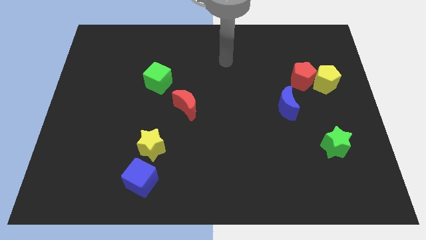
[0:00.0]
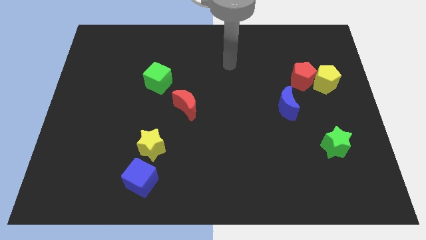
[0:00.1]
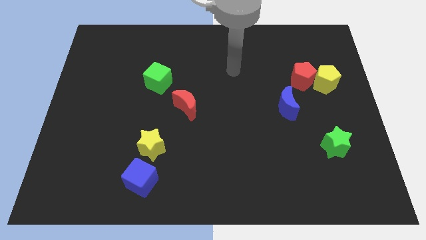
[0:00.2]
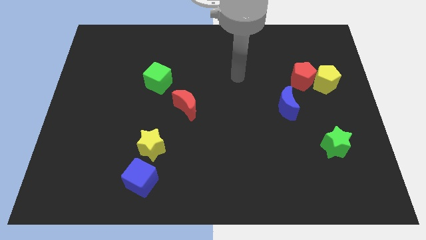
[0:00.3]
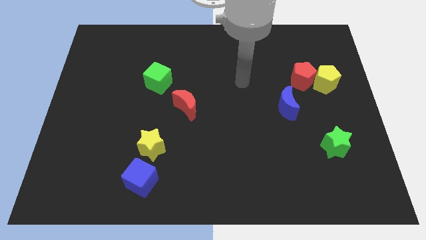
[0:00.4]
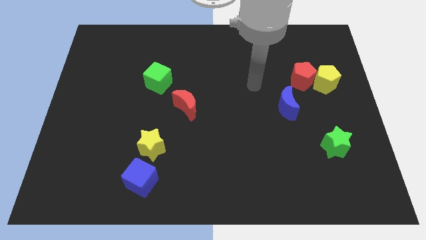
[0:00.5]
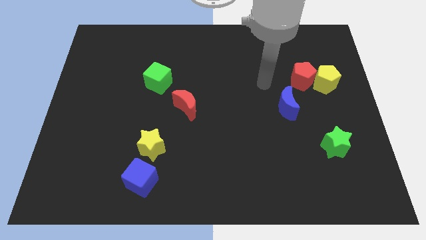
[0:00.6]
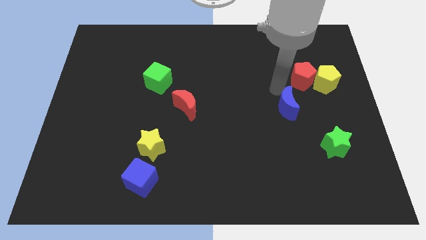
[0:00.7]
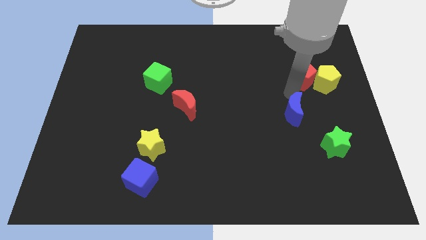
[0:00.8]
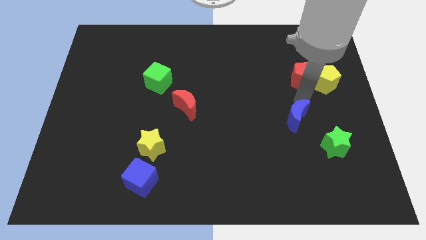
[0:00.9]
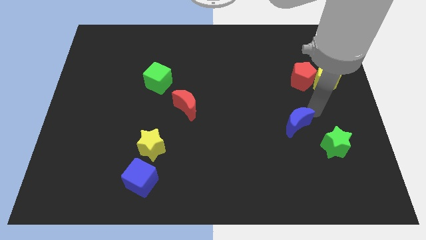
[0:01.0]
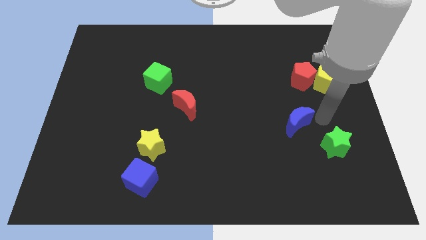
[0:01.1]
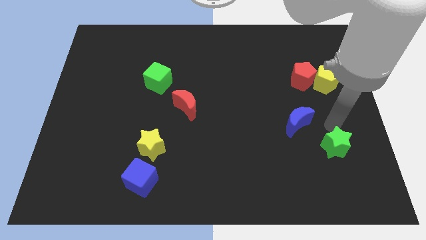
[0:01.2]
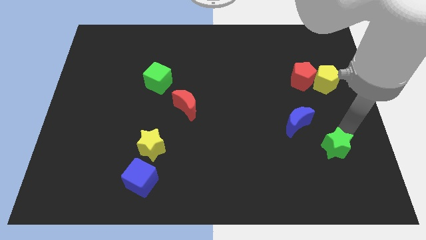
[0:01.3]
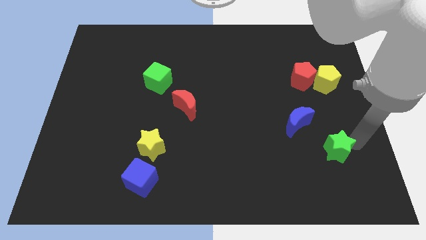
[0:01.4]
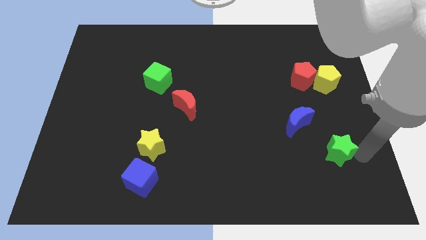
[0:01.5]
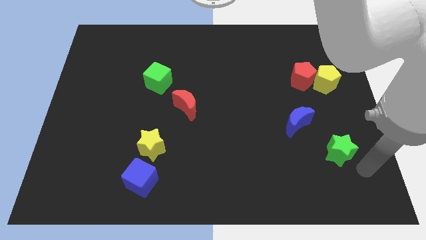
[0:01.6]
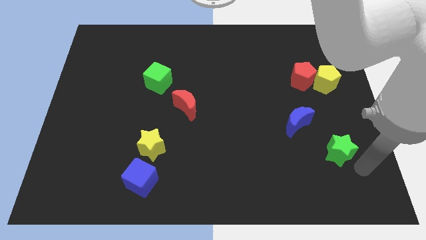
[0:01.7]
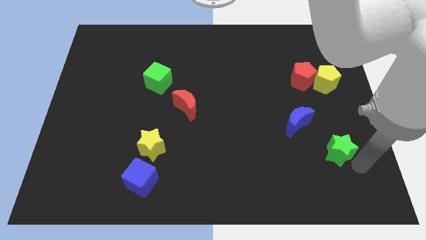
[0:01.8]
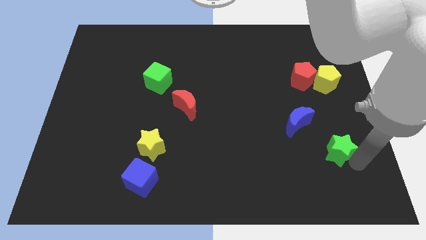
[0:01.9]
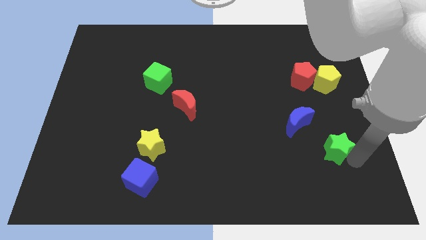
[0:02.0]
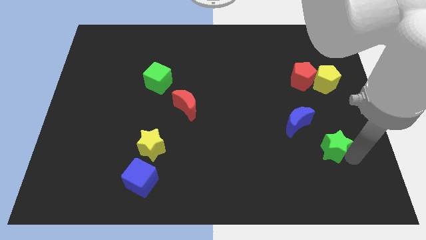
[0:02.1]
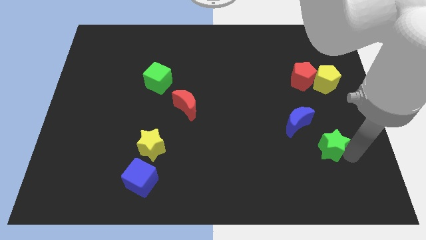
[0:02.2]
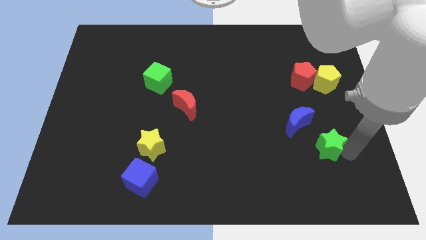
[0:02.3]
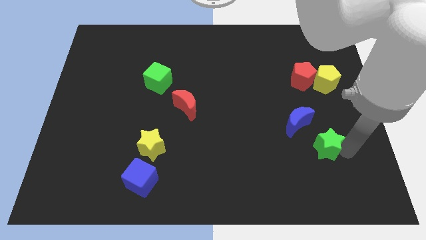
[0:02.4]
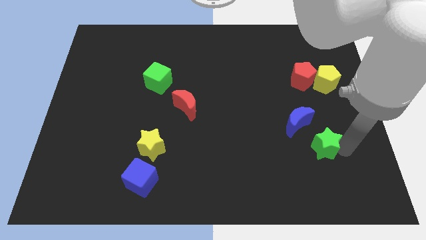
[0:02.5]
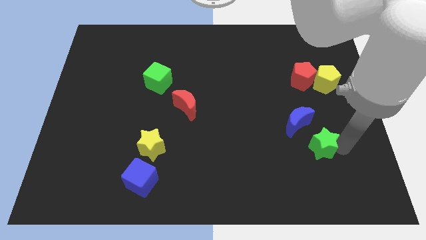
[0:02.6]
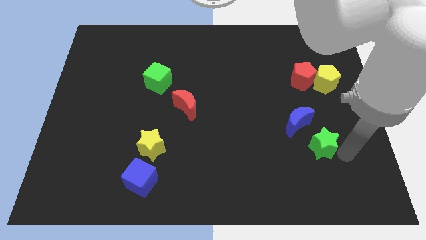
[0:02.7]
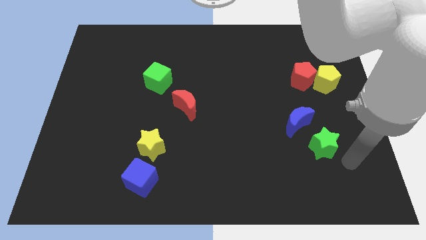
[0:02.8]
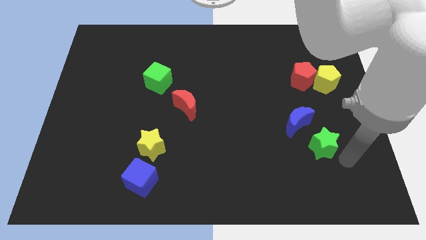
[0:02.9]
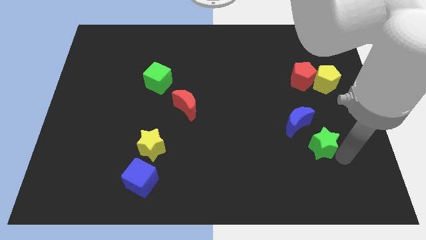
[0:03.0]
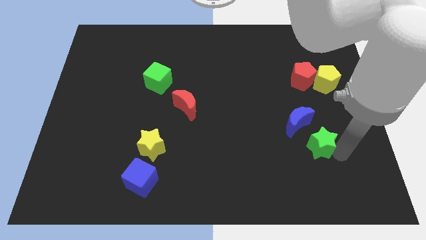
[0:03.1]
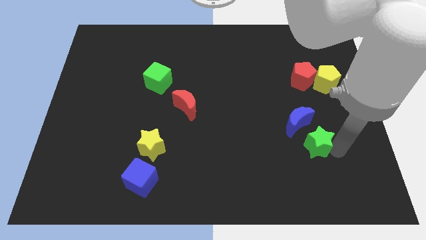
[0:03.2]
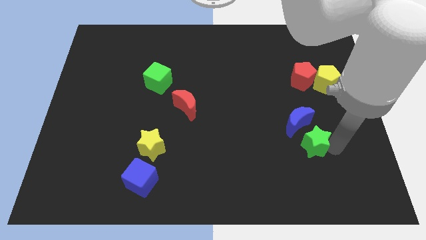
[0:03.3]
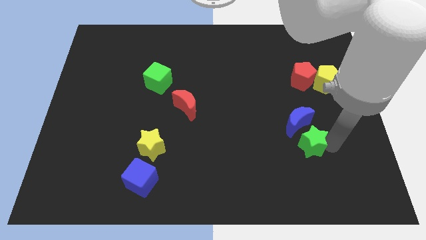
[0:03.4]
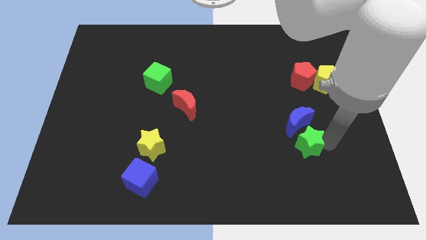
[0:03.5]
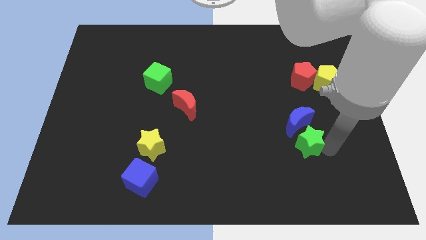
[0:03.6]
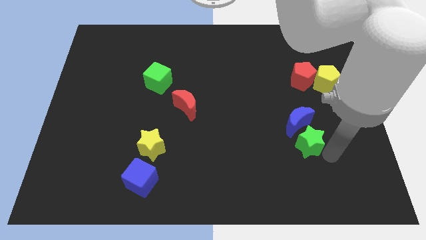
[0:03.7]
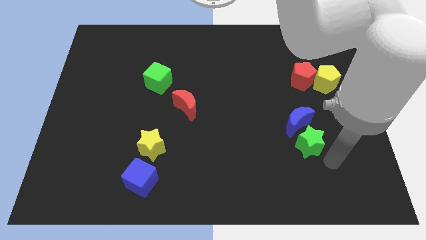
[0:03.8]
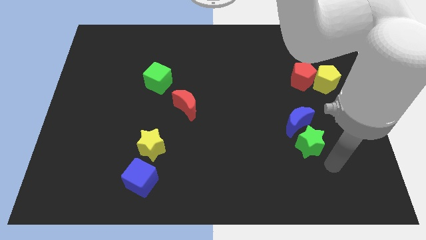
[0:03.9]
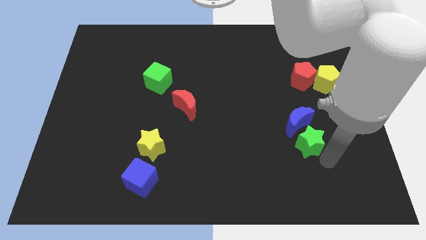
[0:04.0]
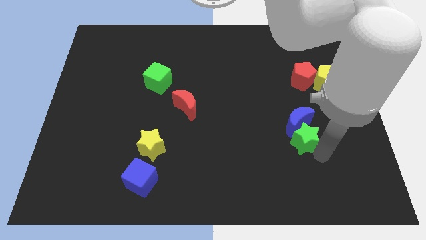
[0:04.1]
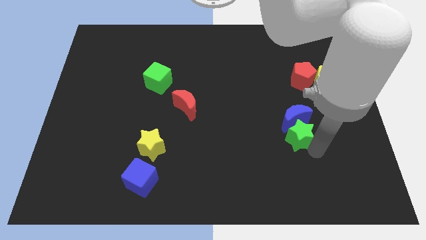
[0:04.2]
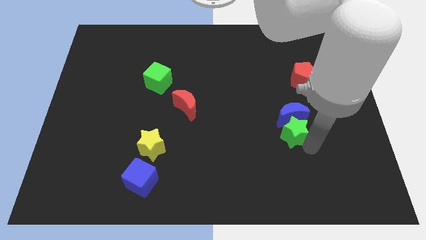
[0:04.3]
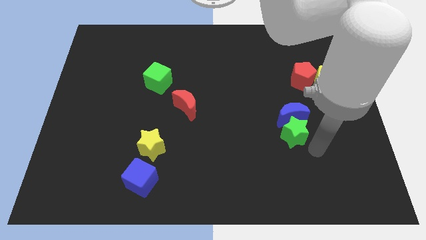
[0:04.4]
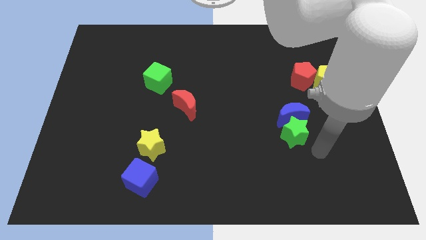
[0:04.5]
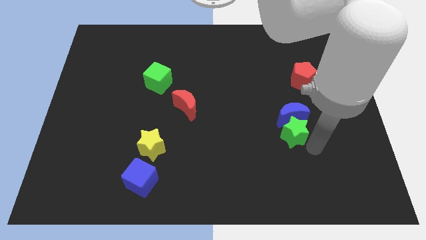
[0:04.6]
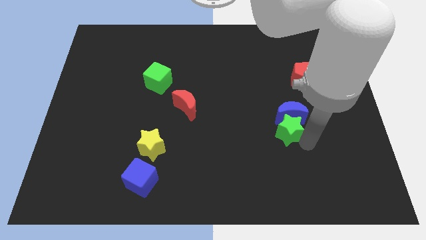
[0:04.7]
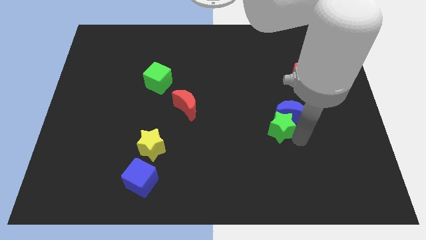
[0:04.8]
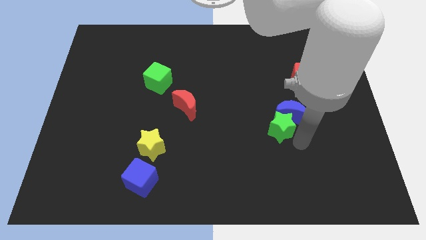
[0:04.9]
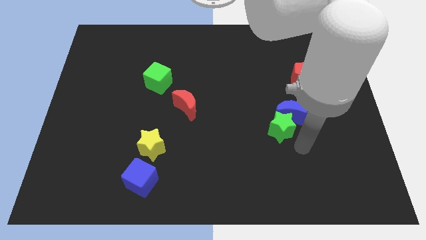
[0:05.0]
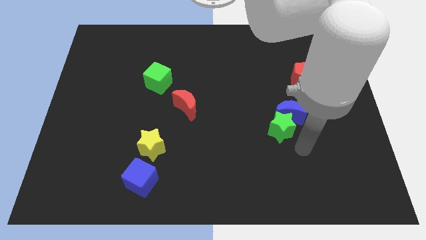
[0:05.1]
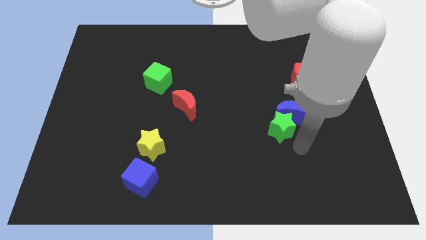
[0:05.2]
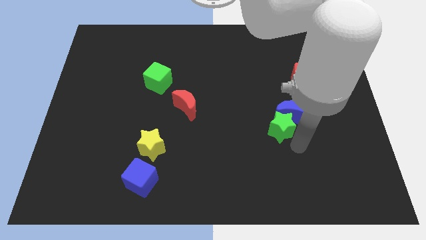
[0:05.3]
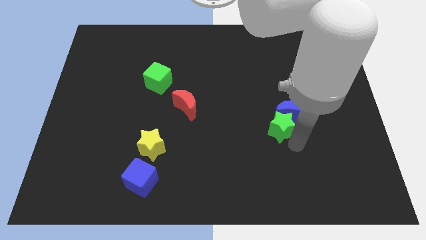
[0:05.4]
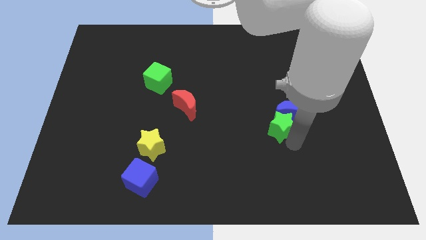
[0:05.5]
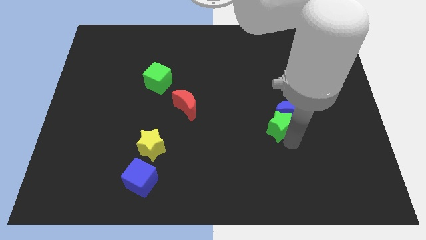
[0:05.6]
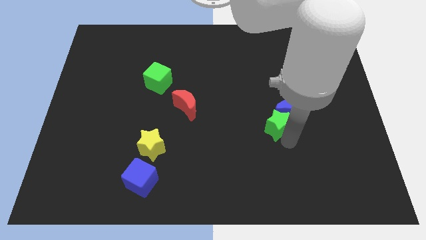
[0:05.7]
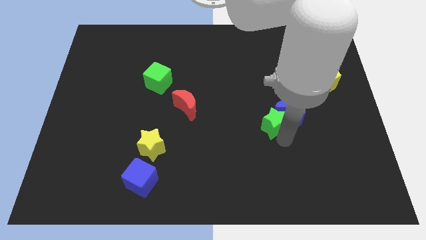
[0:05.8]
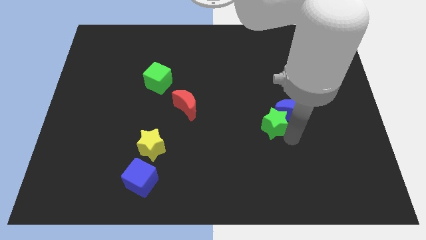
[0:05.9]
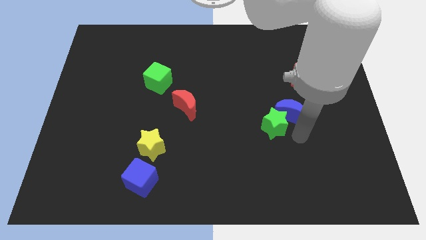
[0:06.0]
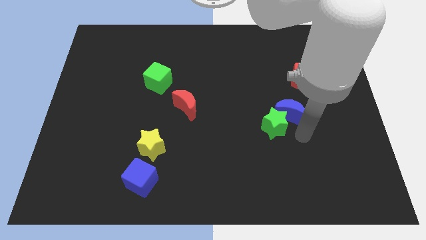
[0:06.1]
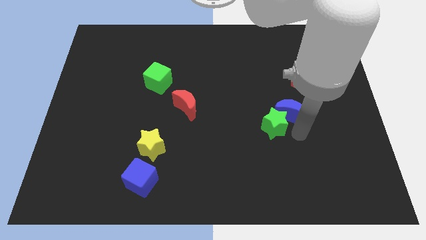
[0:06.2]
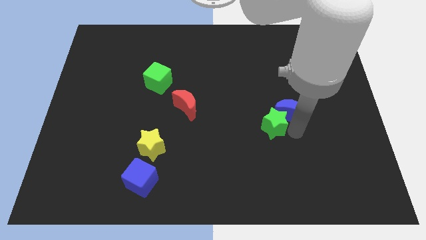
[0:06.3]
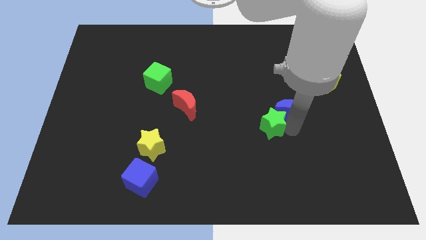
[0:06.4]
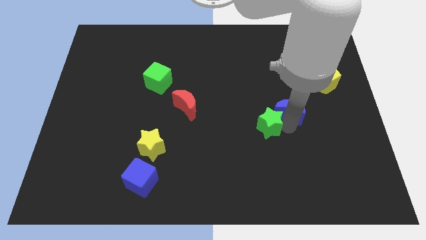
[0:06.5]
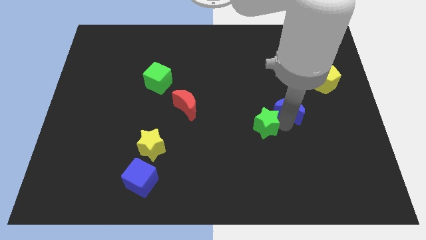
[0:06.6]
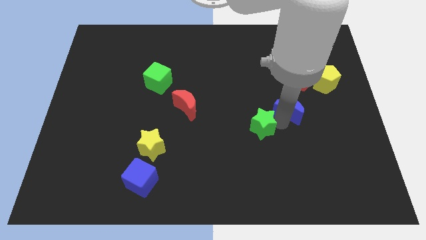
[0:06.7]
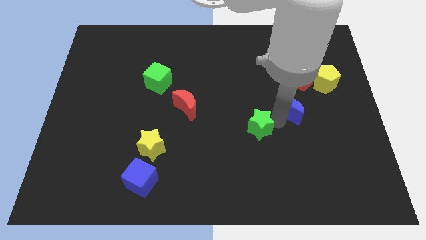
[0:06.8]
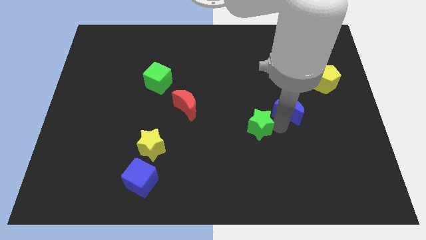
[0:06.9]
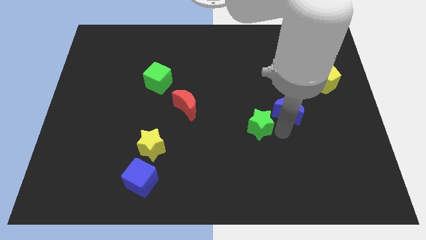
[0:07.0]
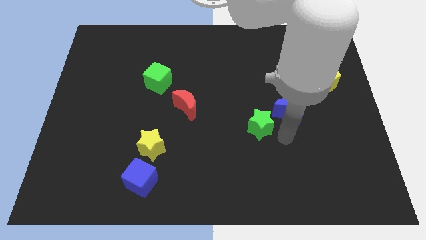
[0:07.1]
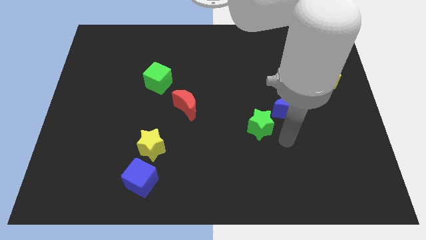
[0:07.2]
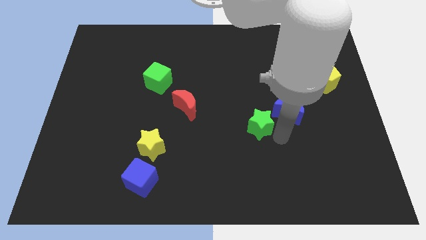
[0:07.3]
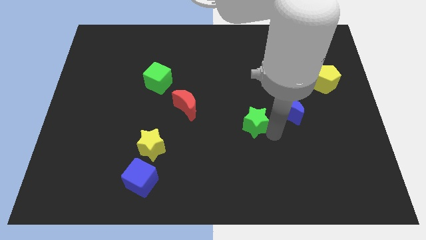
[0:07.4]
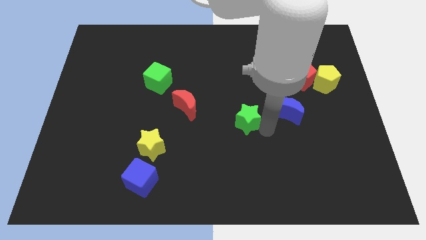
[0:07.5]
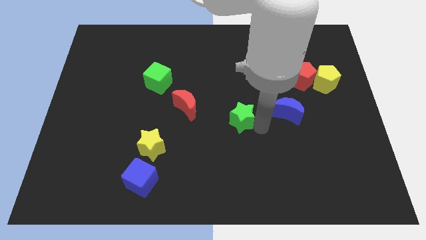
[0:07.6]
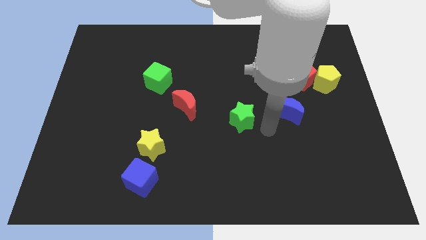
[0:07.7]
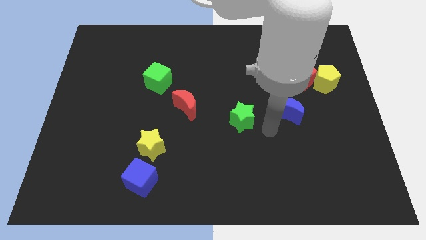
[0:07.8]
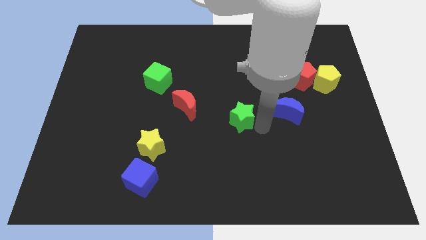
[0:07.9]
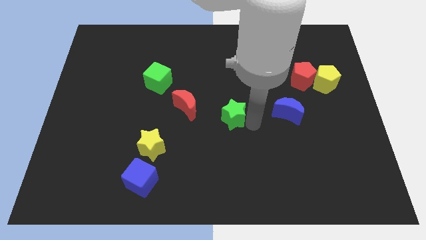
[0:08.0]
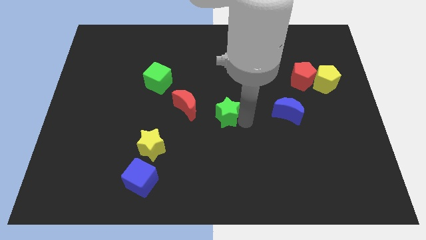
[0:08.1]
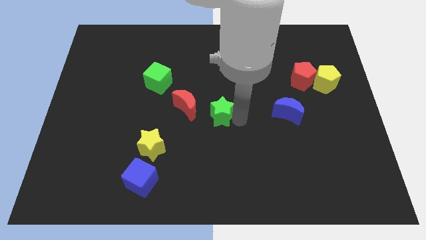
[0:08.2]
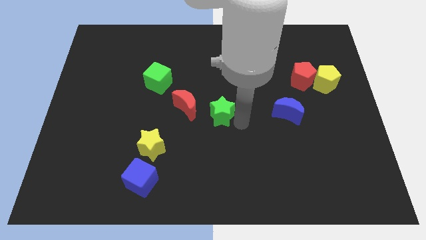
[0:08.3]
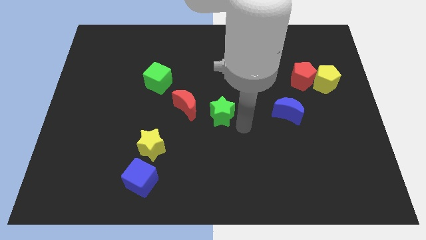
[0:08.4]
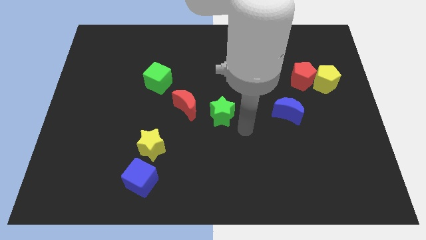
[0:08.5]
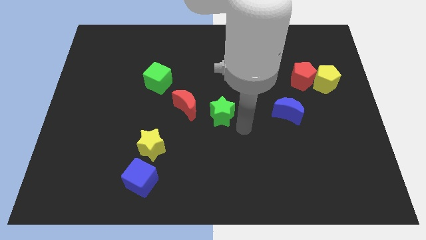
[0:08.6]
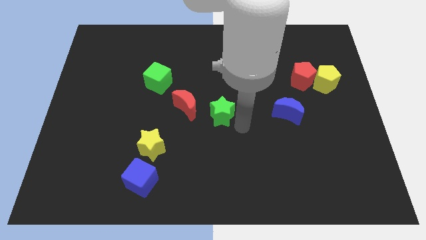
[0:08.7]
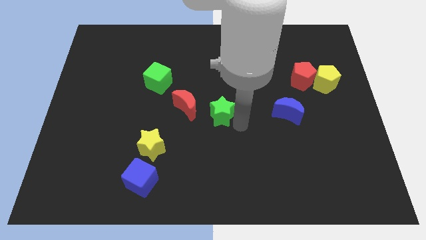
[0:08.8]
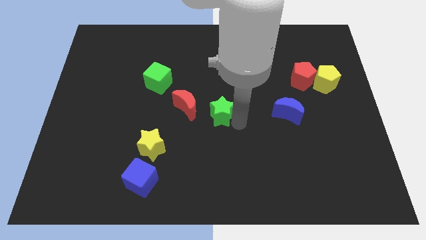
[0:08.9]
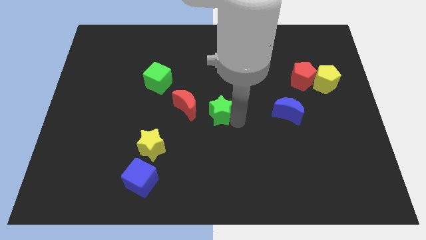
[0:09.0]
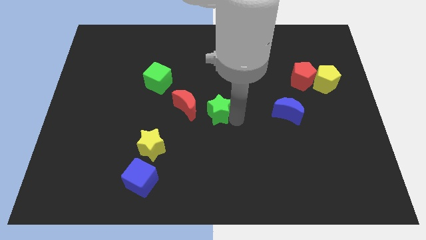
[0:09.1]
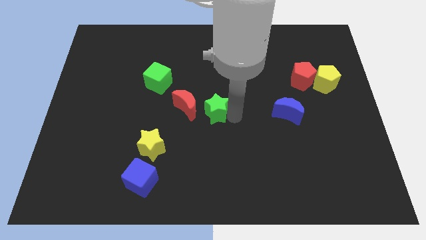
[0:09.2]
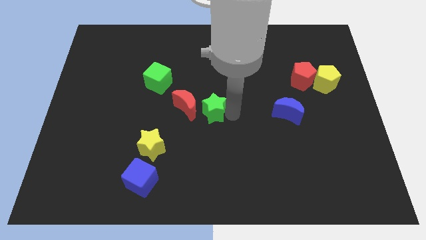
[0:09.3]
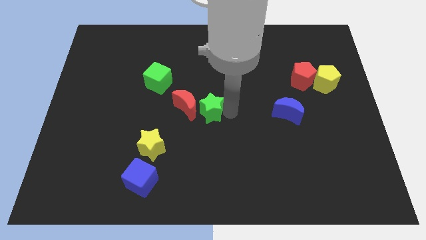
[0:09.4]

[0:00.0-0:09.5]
slide the green star next to the red moon
